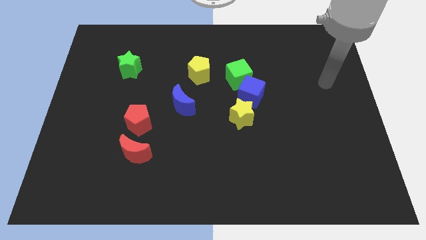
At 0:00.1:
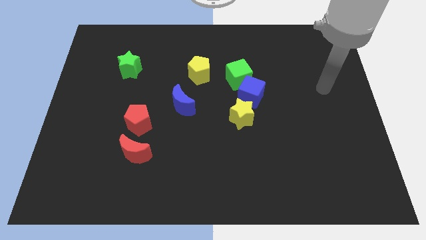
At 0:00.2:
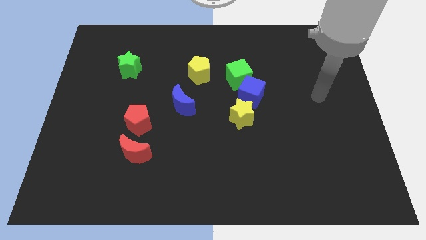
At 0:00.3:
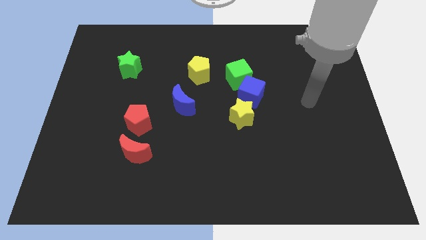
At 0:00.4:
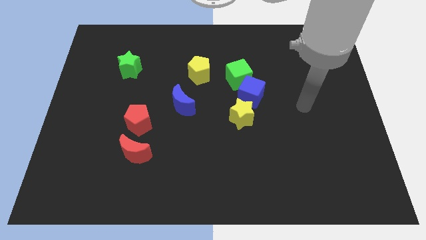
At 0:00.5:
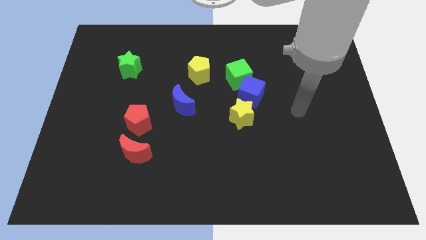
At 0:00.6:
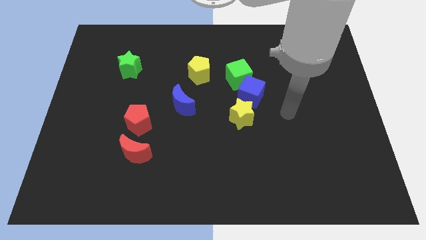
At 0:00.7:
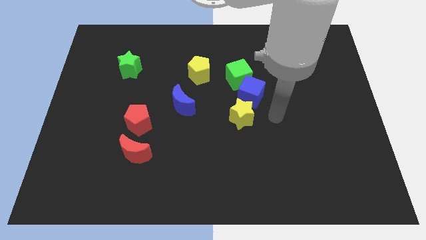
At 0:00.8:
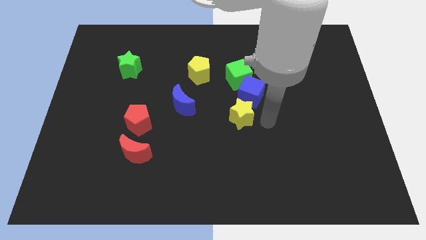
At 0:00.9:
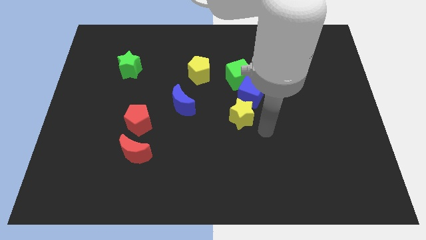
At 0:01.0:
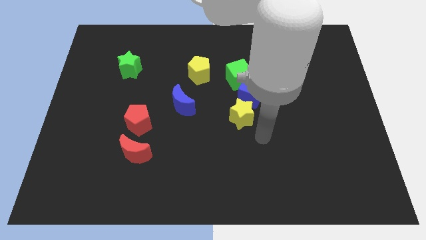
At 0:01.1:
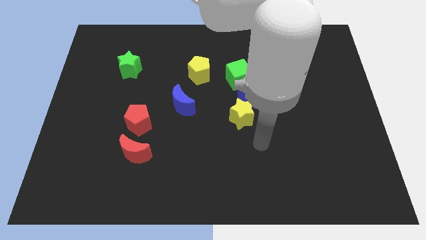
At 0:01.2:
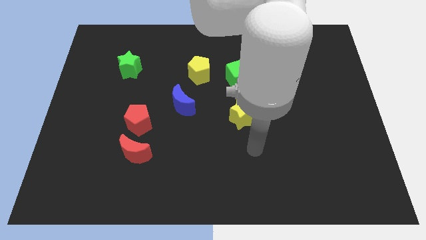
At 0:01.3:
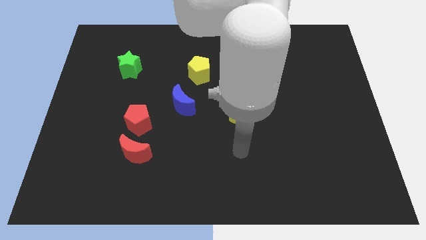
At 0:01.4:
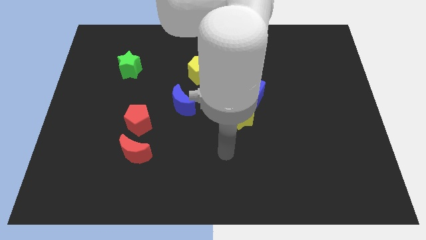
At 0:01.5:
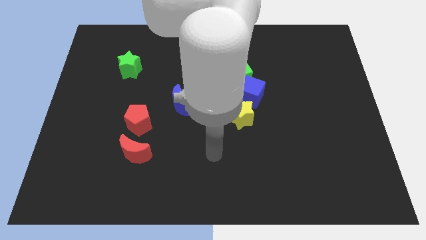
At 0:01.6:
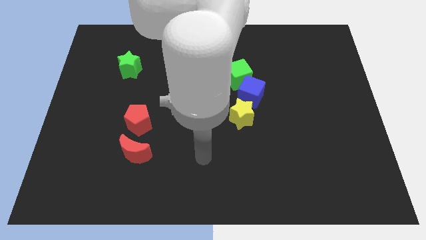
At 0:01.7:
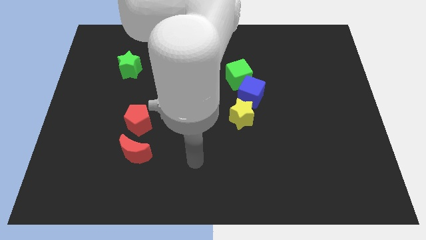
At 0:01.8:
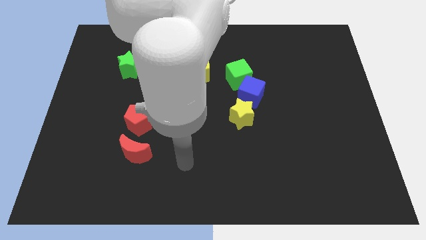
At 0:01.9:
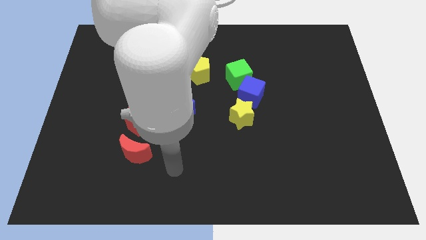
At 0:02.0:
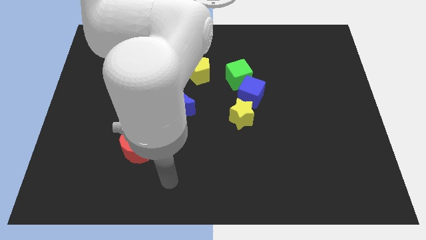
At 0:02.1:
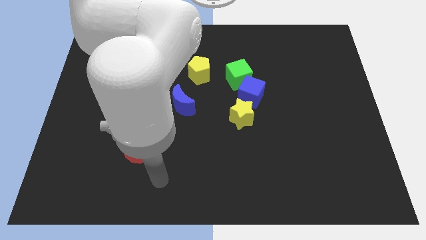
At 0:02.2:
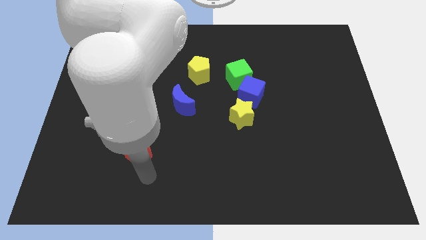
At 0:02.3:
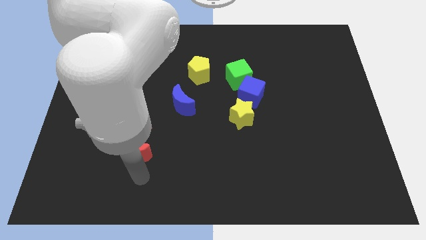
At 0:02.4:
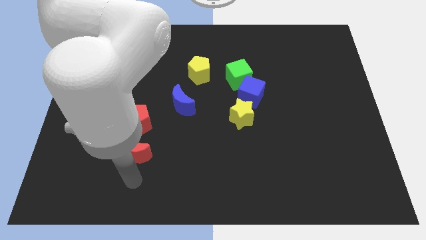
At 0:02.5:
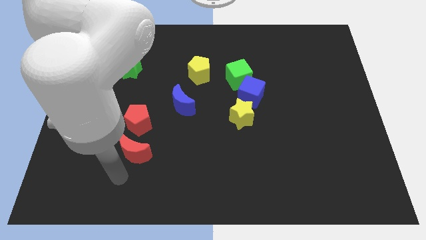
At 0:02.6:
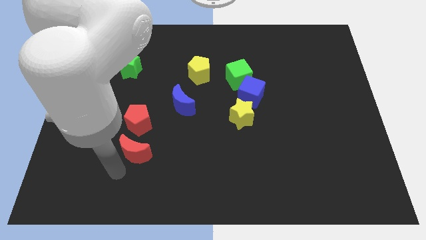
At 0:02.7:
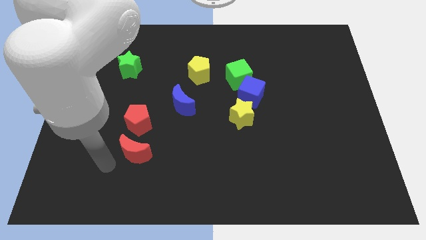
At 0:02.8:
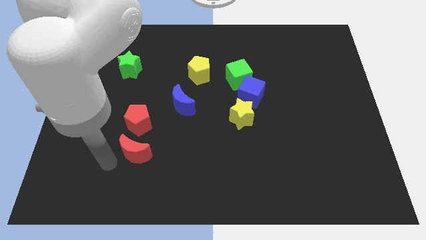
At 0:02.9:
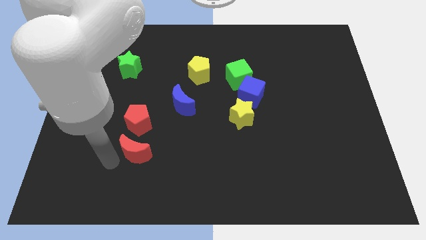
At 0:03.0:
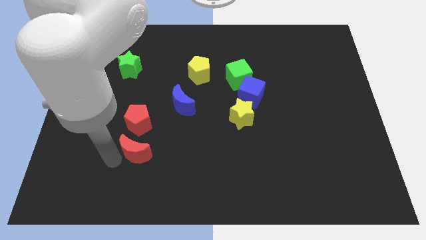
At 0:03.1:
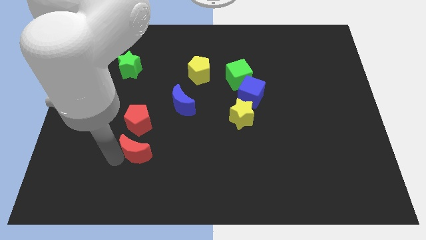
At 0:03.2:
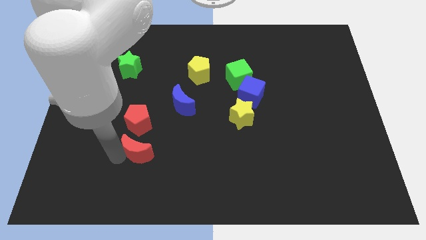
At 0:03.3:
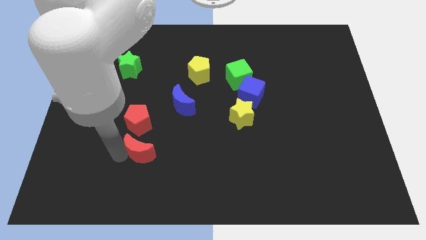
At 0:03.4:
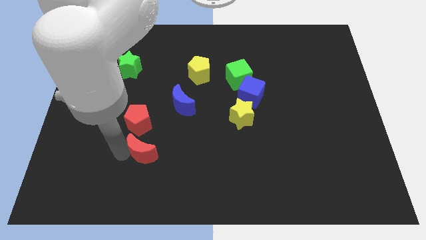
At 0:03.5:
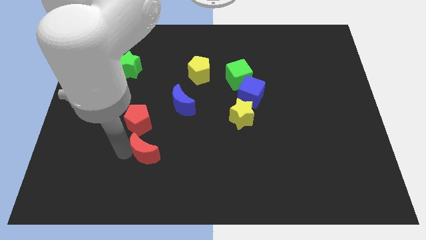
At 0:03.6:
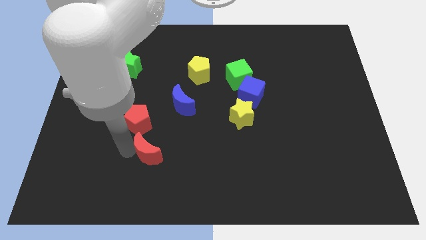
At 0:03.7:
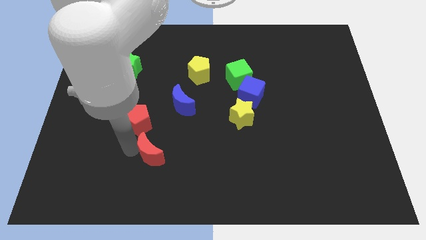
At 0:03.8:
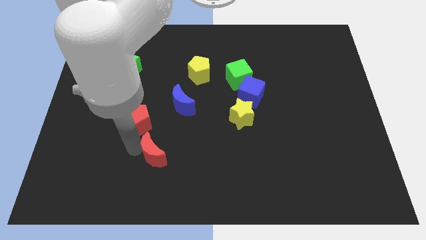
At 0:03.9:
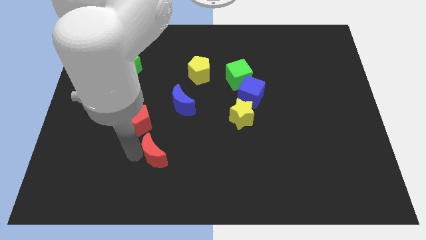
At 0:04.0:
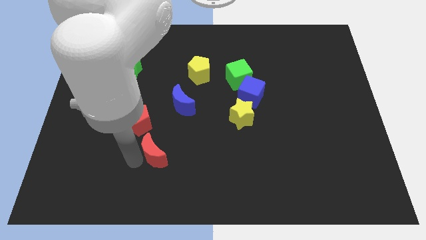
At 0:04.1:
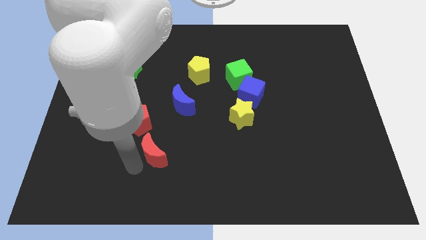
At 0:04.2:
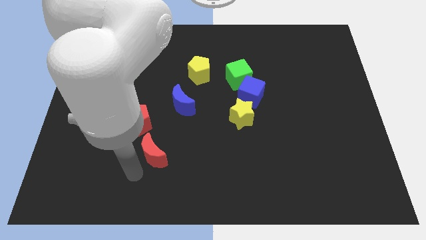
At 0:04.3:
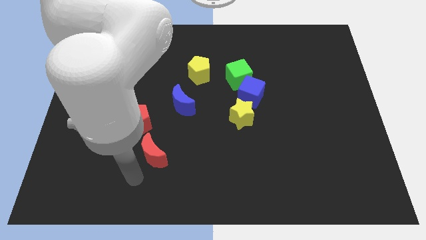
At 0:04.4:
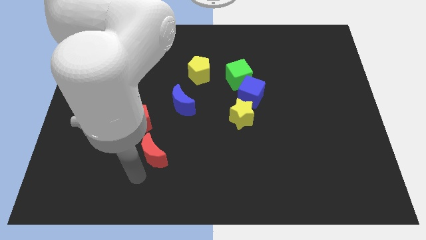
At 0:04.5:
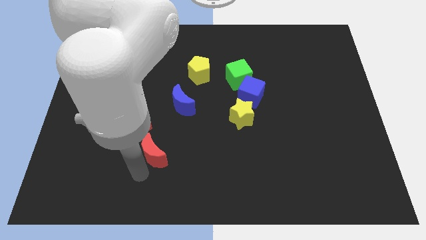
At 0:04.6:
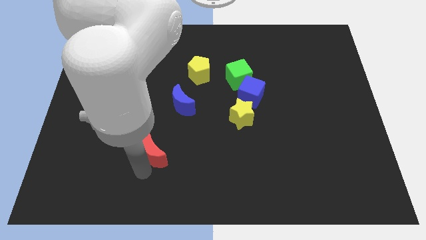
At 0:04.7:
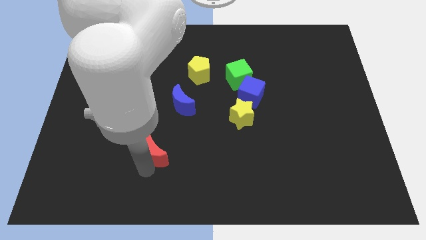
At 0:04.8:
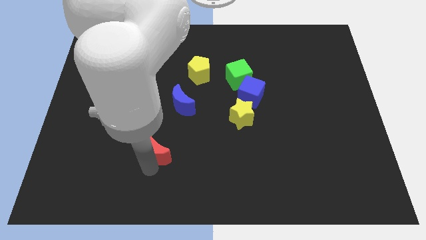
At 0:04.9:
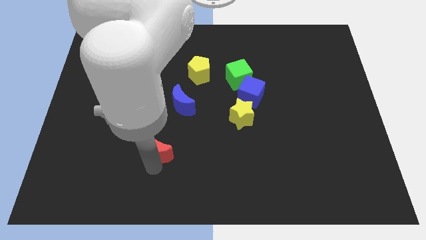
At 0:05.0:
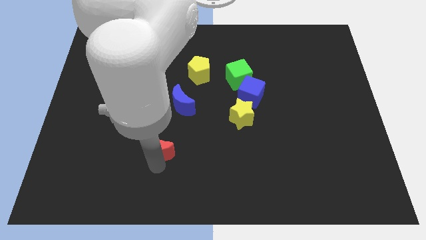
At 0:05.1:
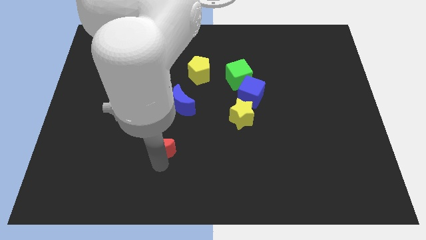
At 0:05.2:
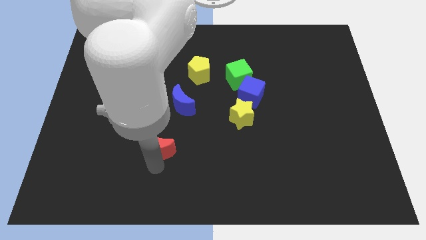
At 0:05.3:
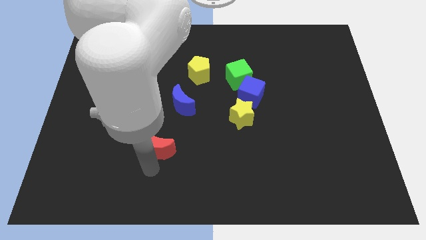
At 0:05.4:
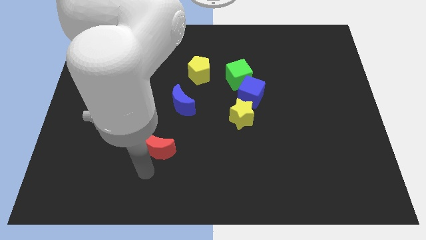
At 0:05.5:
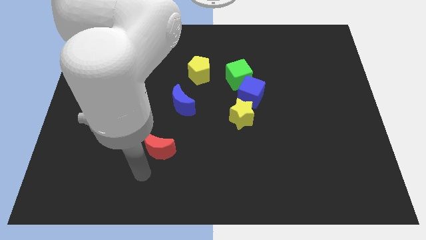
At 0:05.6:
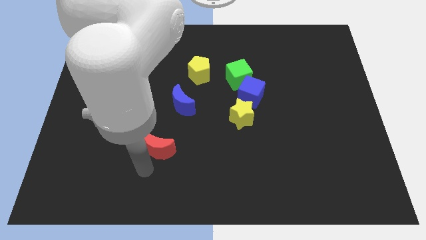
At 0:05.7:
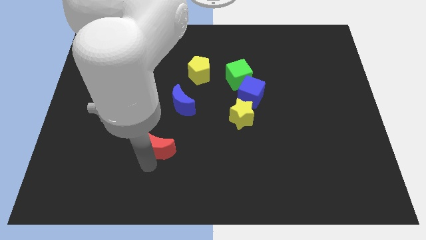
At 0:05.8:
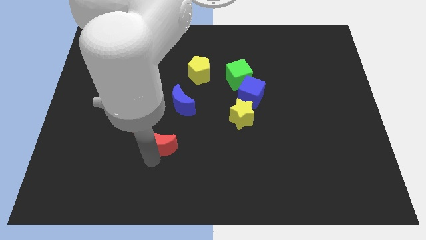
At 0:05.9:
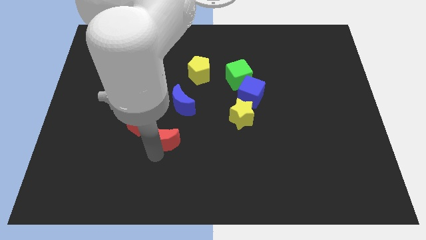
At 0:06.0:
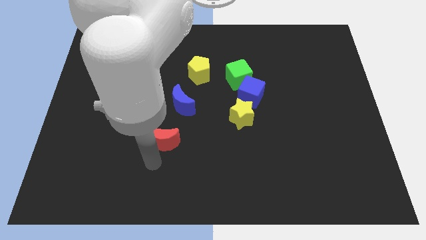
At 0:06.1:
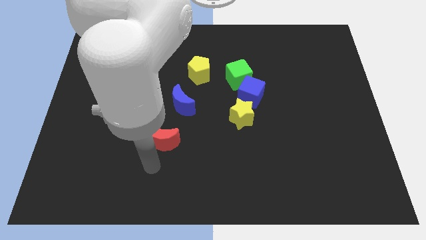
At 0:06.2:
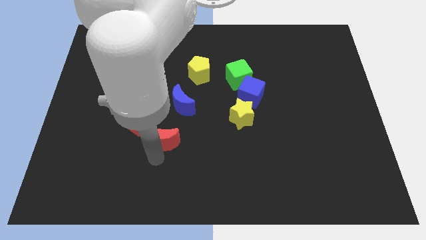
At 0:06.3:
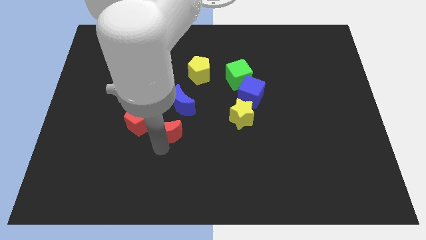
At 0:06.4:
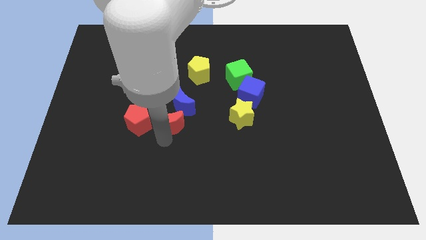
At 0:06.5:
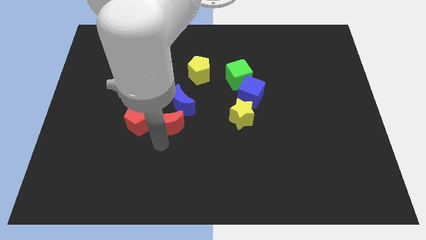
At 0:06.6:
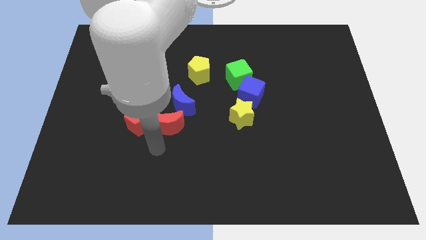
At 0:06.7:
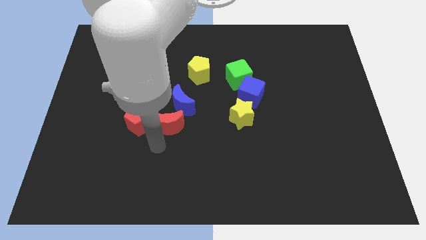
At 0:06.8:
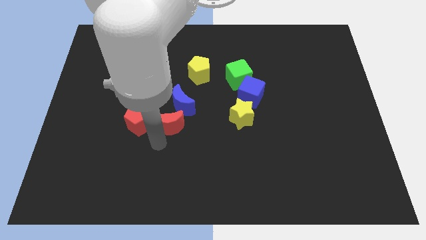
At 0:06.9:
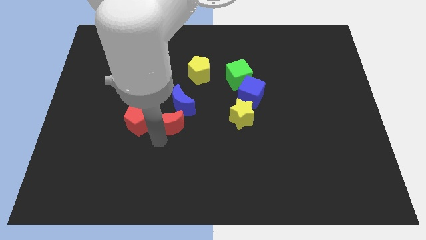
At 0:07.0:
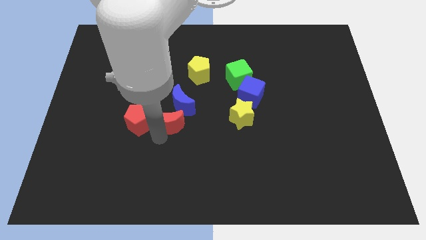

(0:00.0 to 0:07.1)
push the red moon to the blue moon

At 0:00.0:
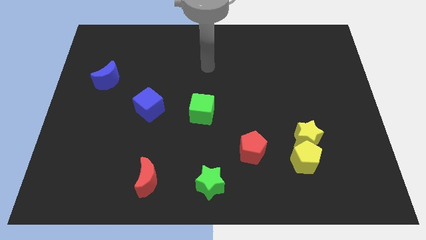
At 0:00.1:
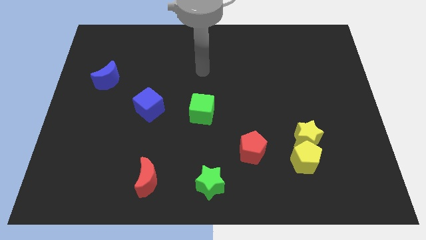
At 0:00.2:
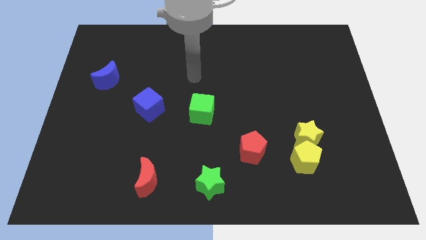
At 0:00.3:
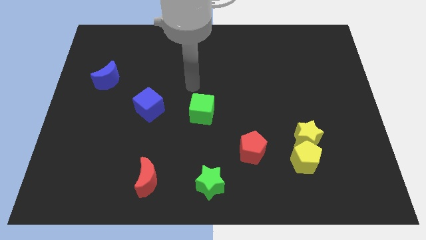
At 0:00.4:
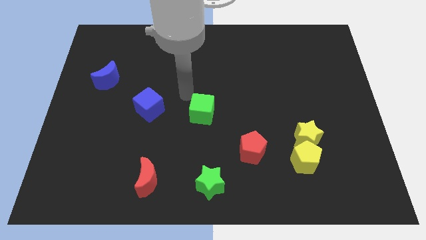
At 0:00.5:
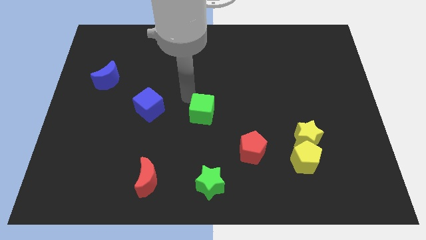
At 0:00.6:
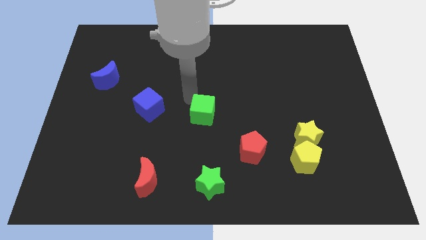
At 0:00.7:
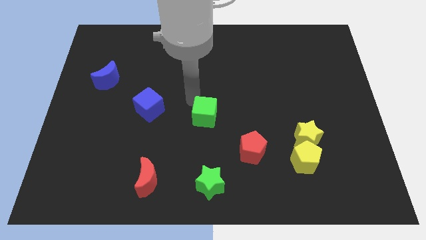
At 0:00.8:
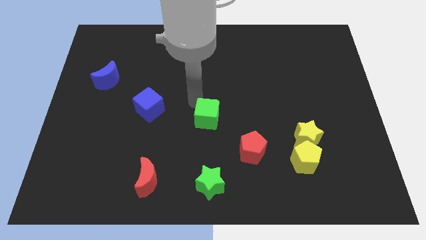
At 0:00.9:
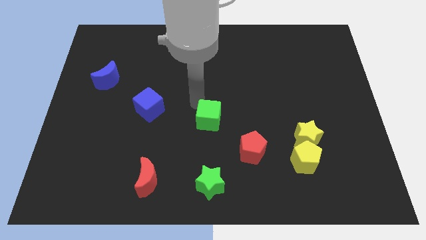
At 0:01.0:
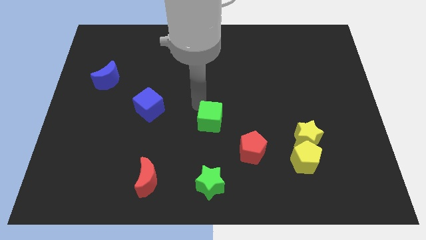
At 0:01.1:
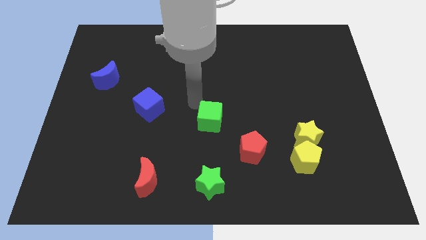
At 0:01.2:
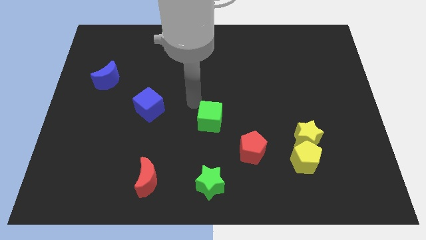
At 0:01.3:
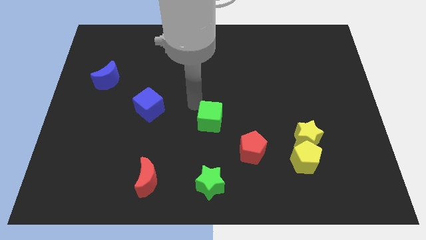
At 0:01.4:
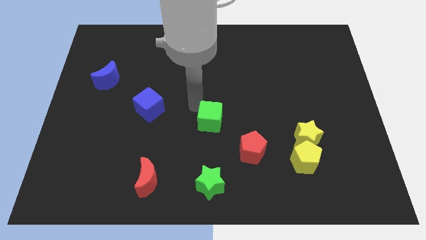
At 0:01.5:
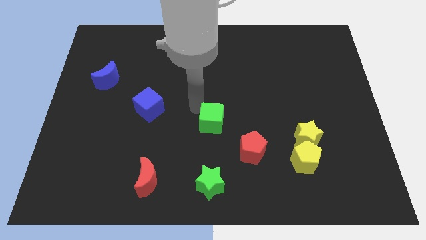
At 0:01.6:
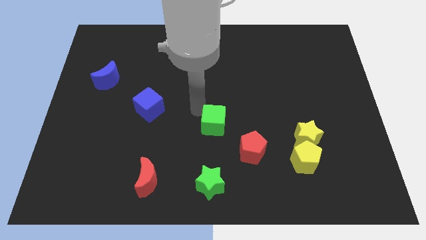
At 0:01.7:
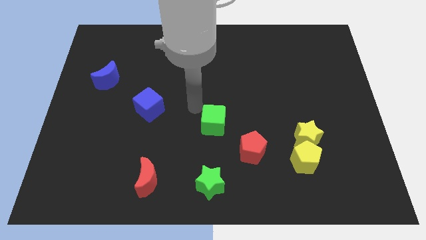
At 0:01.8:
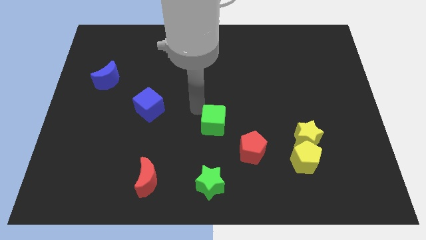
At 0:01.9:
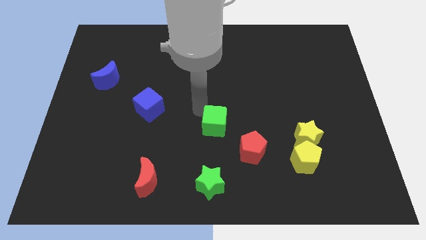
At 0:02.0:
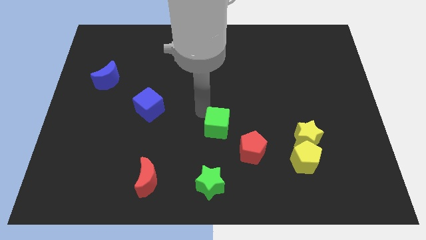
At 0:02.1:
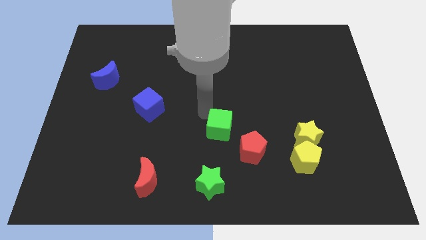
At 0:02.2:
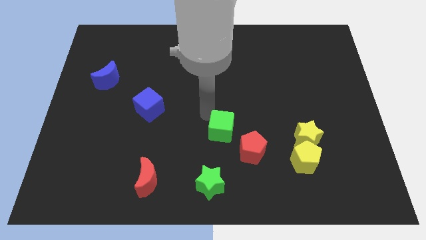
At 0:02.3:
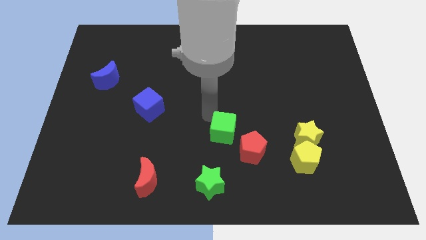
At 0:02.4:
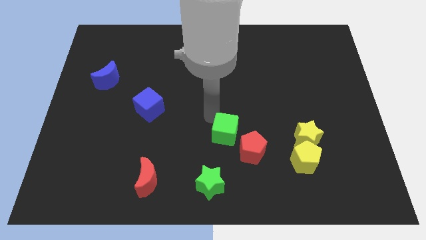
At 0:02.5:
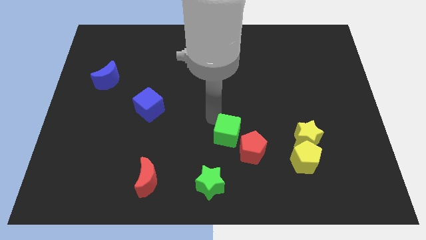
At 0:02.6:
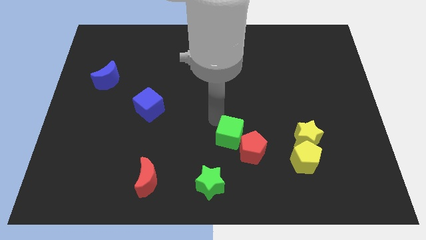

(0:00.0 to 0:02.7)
slide the green cube towards the red pentagon
